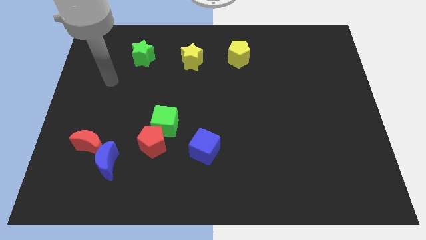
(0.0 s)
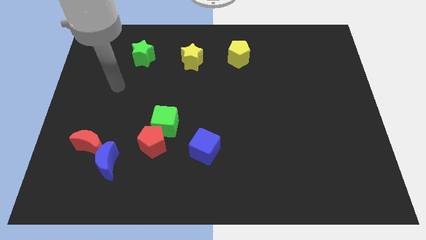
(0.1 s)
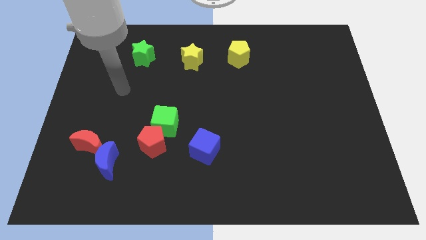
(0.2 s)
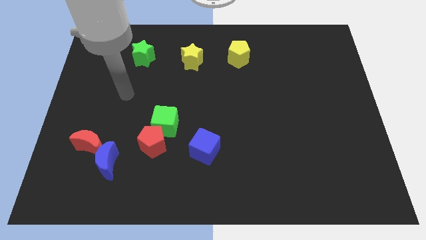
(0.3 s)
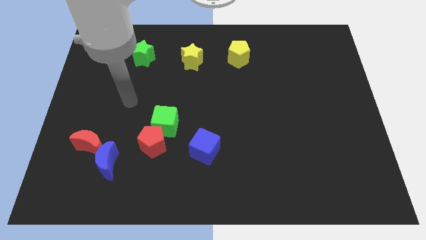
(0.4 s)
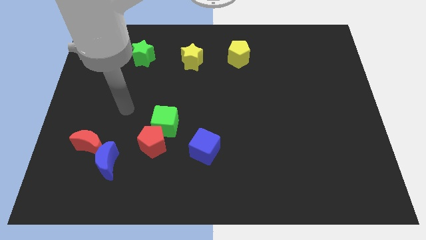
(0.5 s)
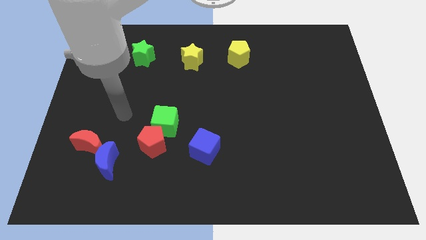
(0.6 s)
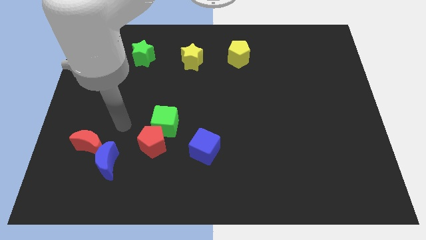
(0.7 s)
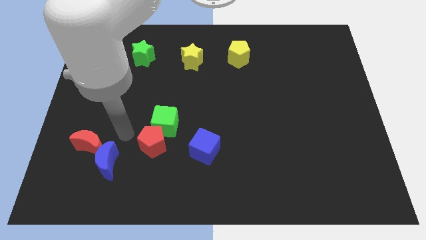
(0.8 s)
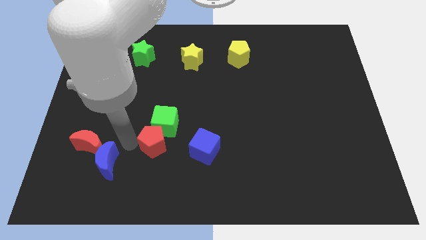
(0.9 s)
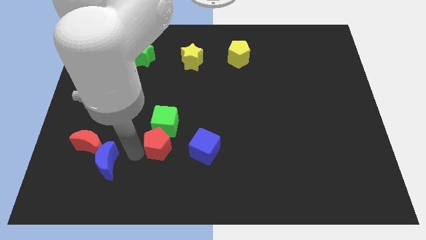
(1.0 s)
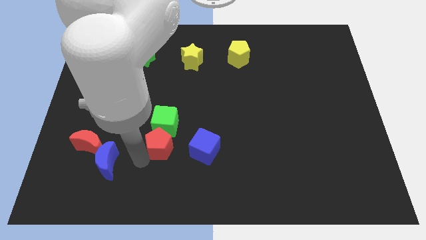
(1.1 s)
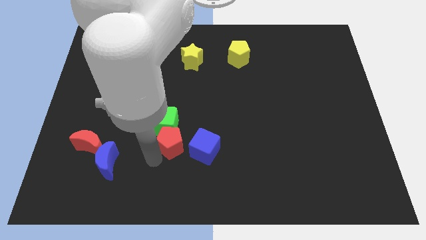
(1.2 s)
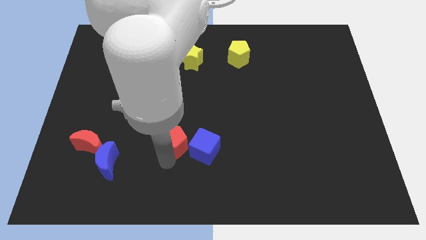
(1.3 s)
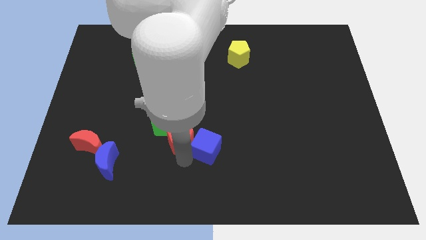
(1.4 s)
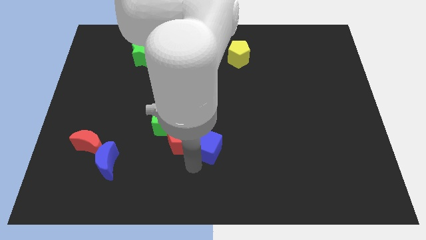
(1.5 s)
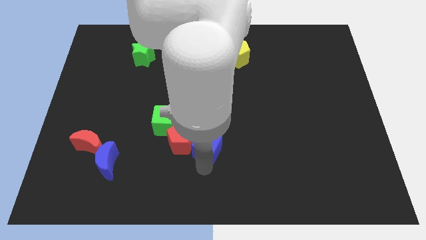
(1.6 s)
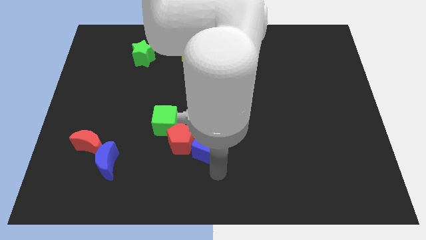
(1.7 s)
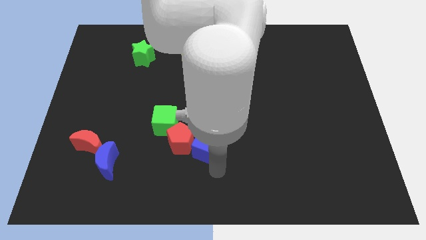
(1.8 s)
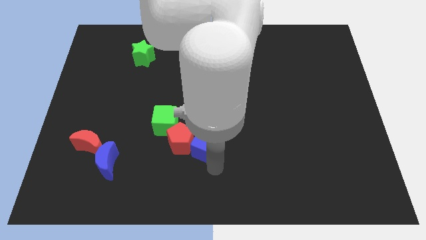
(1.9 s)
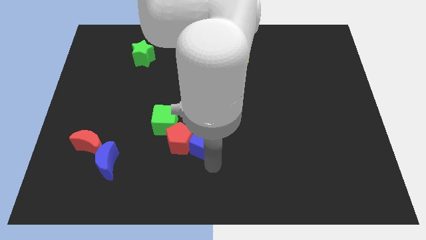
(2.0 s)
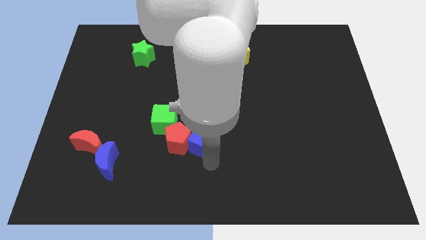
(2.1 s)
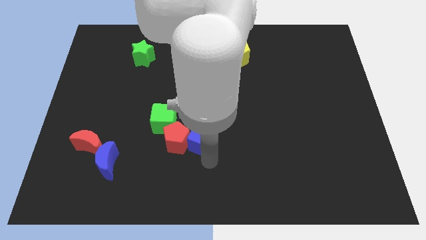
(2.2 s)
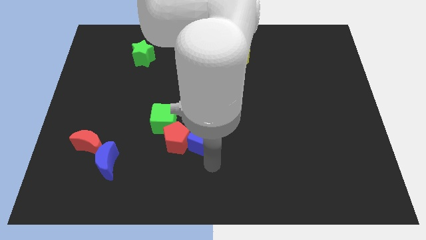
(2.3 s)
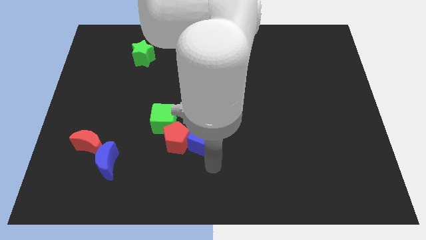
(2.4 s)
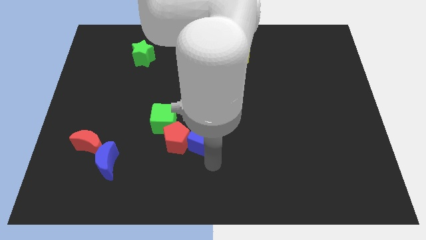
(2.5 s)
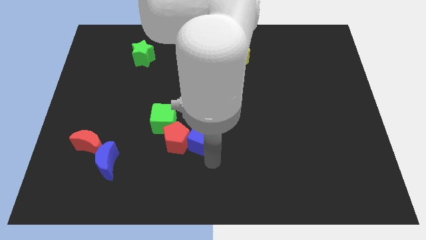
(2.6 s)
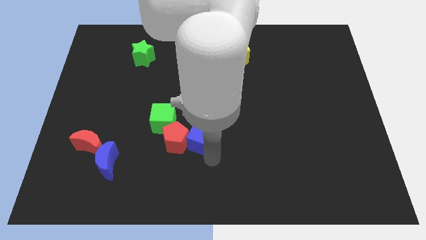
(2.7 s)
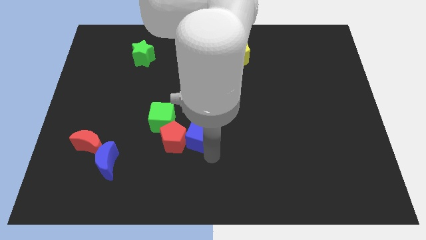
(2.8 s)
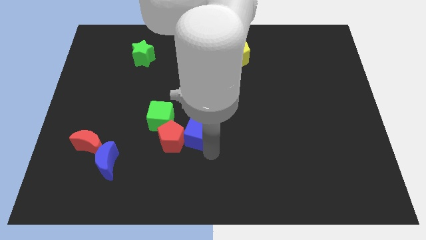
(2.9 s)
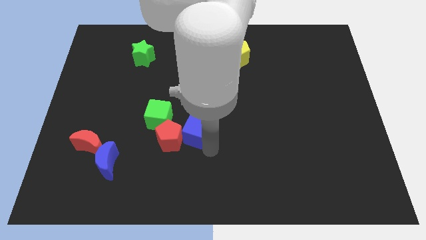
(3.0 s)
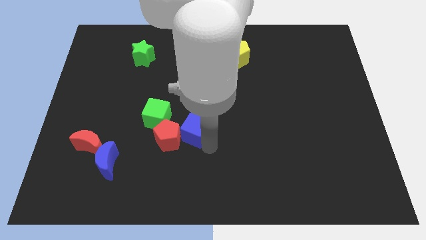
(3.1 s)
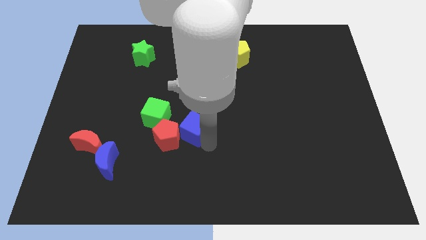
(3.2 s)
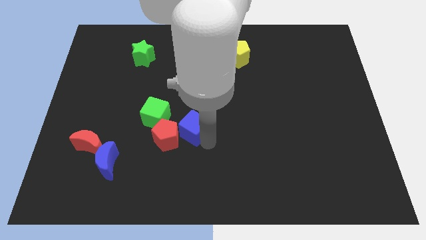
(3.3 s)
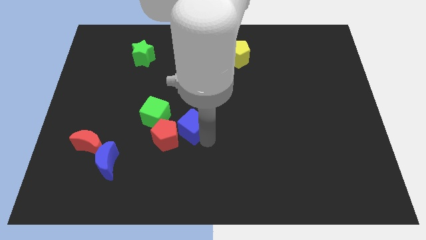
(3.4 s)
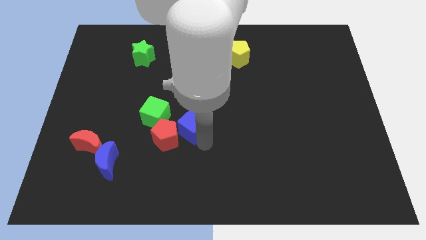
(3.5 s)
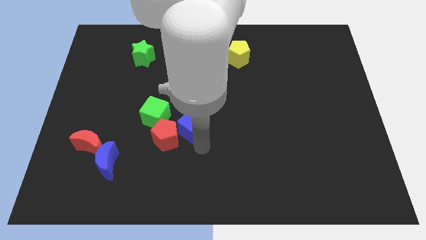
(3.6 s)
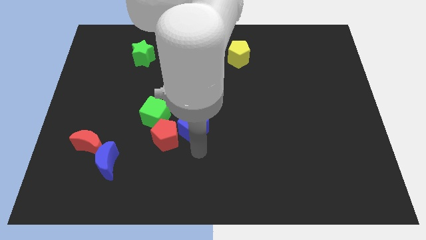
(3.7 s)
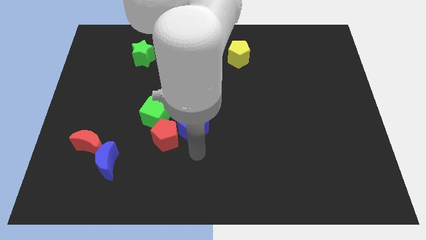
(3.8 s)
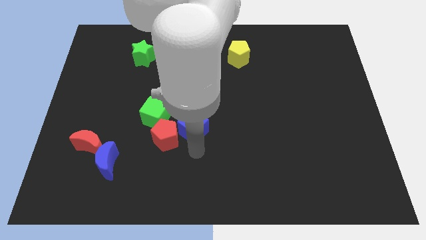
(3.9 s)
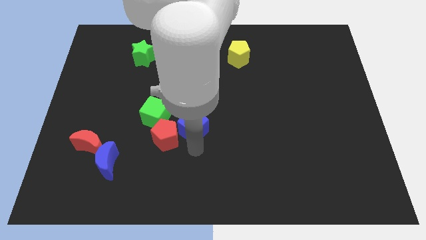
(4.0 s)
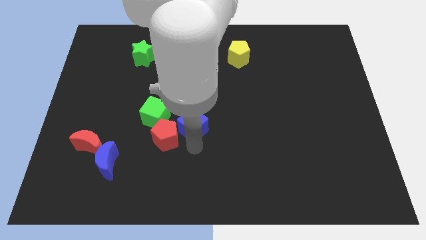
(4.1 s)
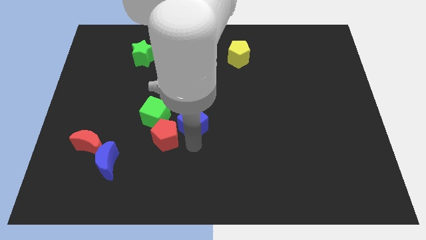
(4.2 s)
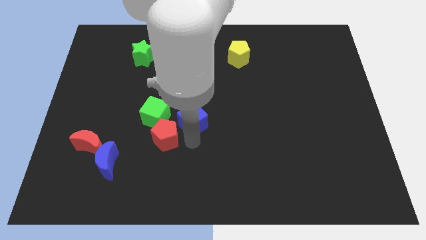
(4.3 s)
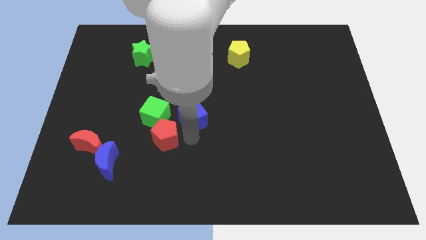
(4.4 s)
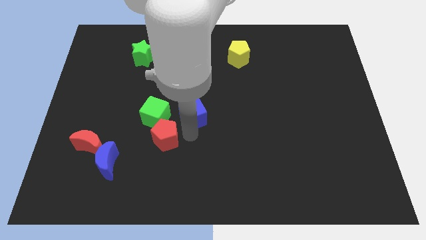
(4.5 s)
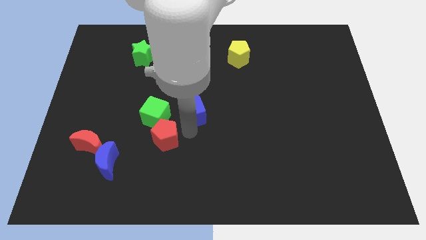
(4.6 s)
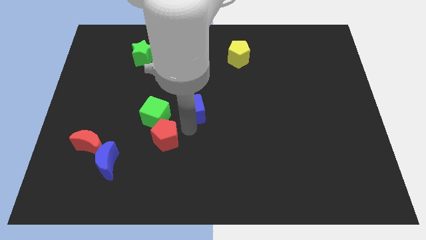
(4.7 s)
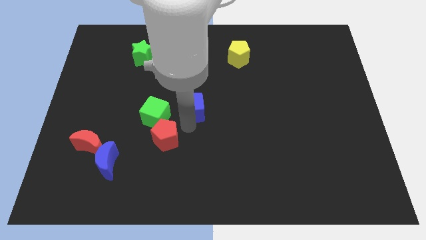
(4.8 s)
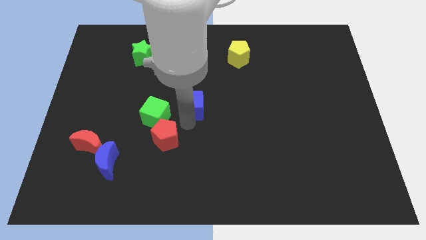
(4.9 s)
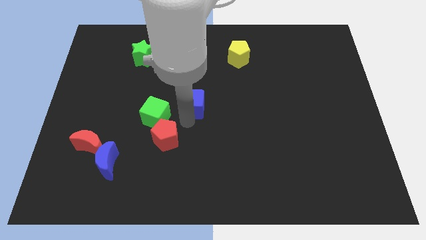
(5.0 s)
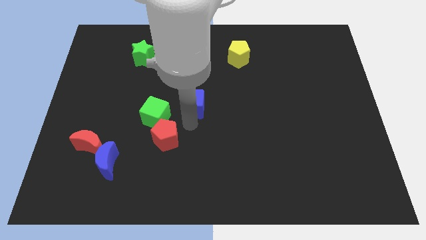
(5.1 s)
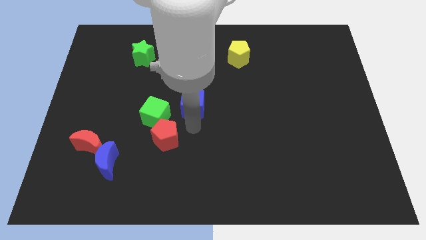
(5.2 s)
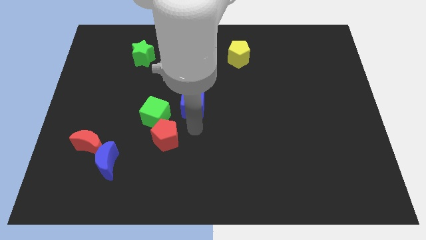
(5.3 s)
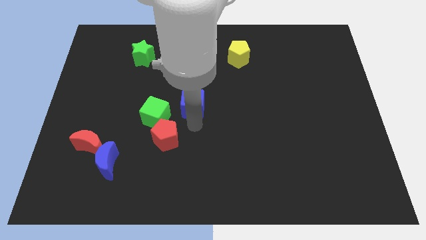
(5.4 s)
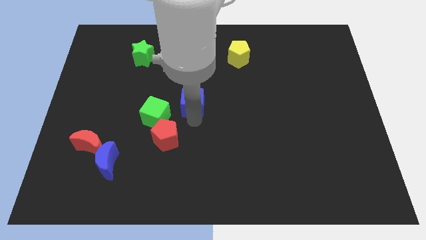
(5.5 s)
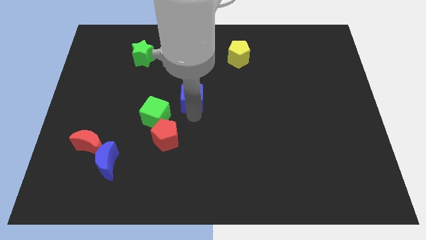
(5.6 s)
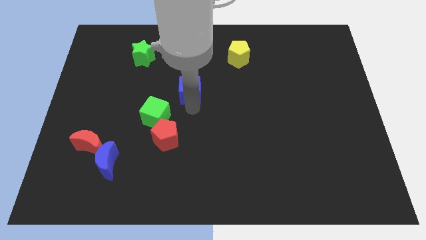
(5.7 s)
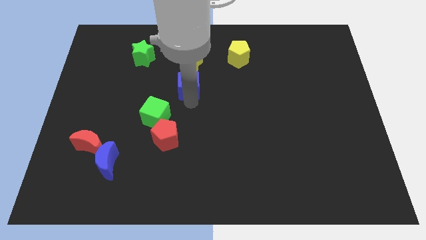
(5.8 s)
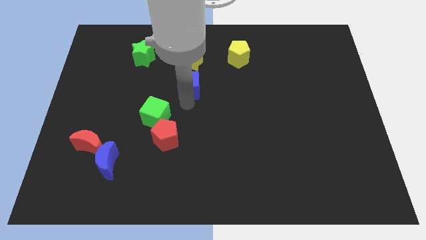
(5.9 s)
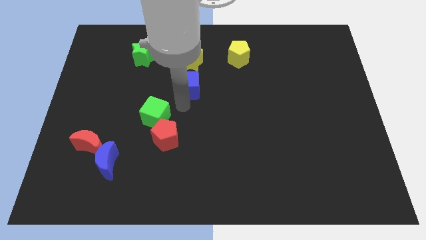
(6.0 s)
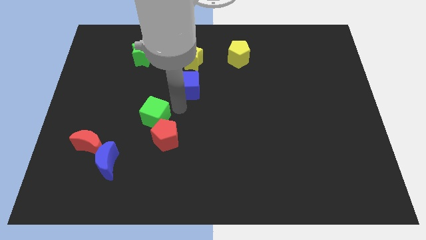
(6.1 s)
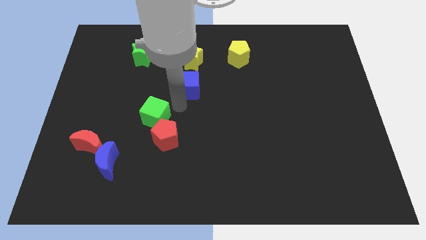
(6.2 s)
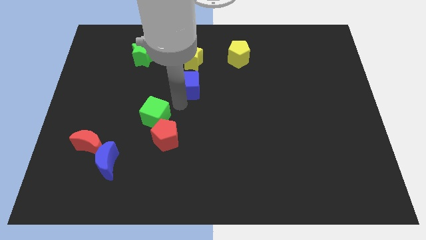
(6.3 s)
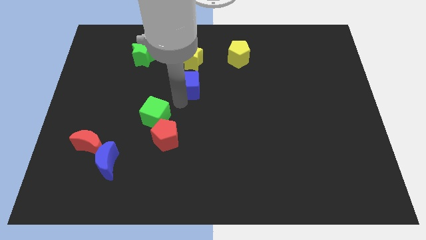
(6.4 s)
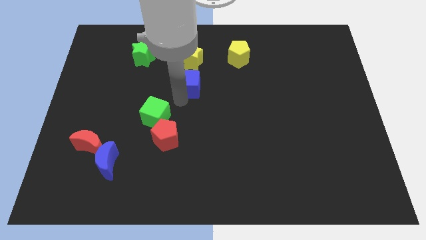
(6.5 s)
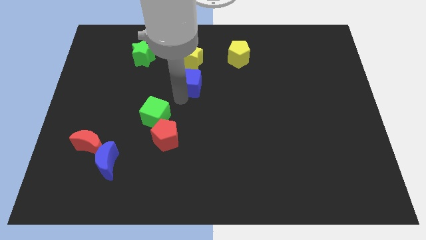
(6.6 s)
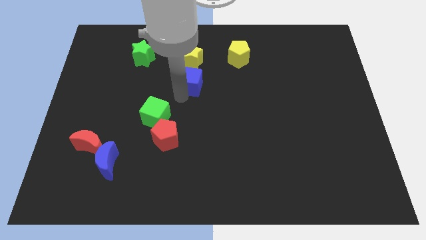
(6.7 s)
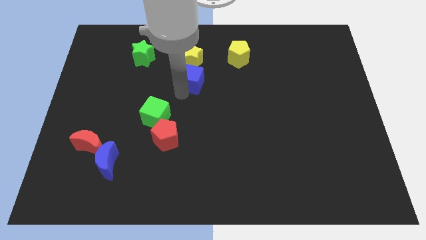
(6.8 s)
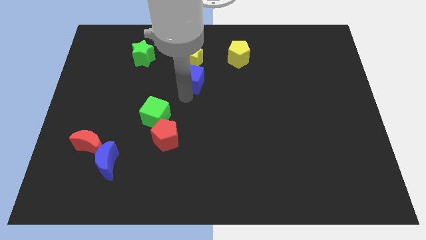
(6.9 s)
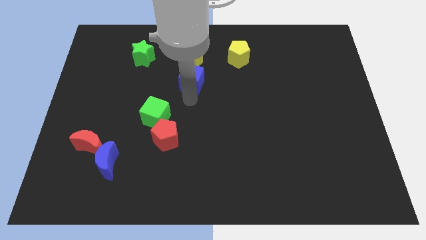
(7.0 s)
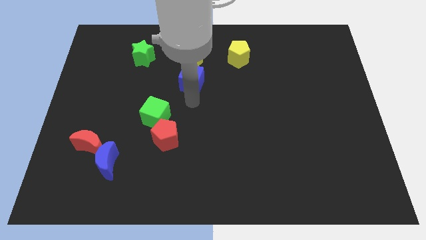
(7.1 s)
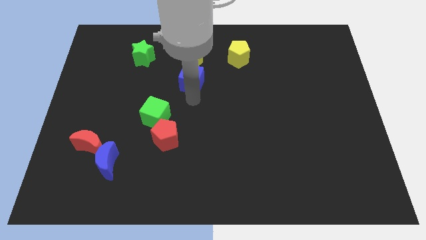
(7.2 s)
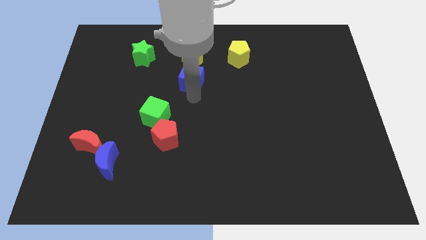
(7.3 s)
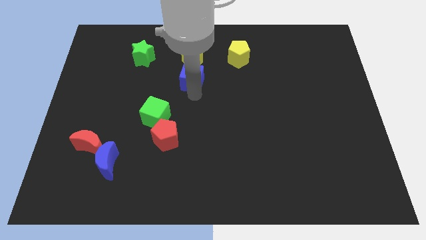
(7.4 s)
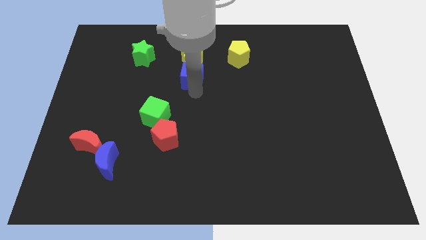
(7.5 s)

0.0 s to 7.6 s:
slide the blue cube close to the yellow star

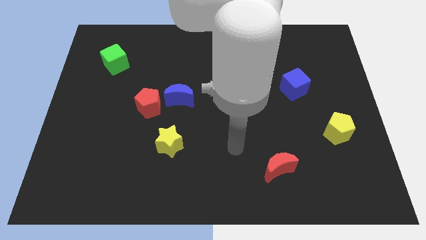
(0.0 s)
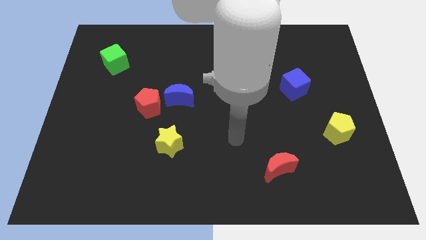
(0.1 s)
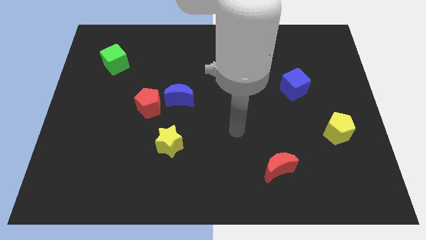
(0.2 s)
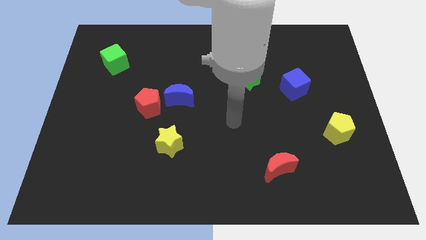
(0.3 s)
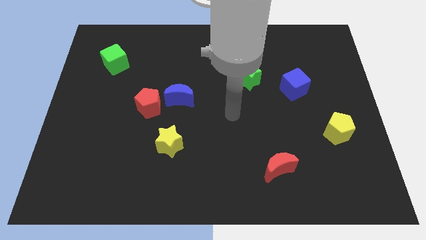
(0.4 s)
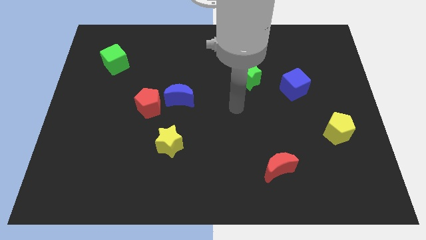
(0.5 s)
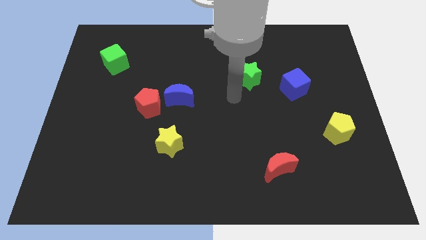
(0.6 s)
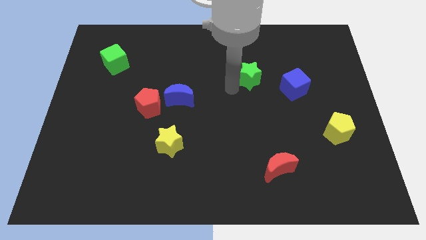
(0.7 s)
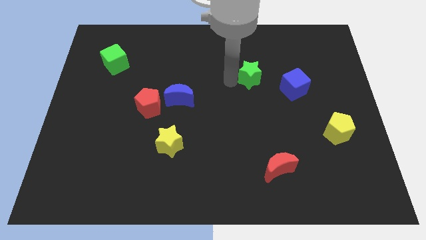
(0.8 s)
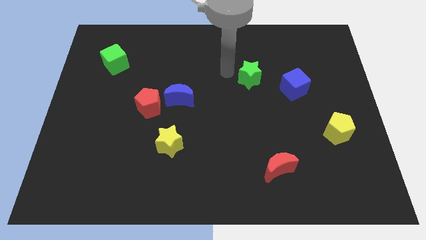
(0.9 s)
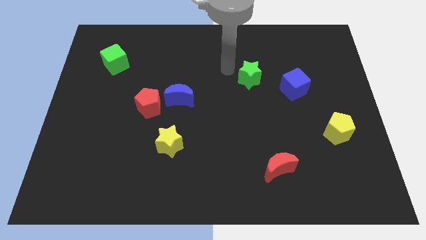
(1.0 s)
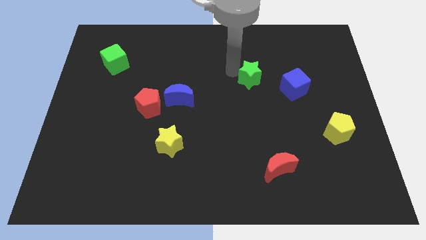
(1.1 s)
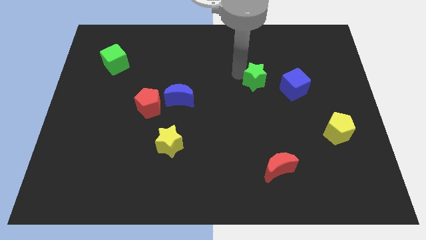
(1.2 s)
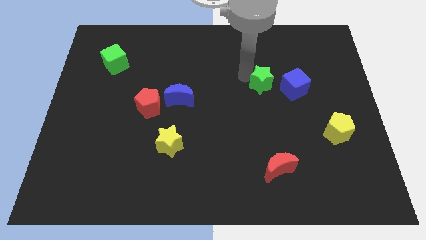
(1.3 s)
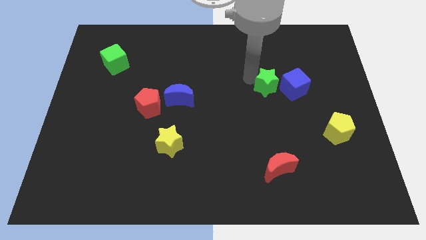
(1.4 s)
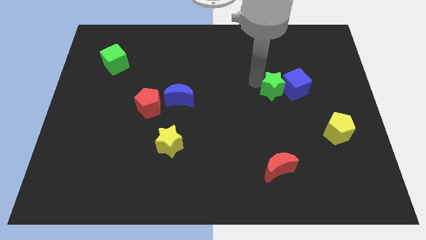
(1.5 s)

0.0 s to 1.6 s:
move the green star to the blue cube
